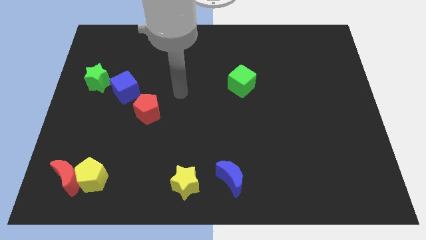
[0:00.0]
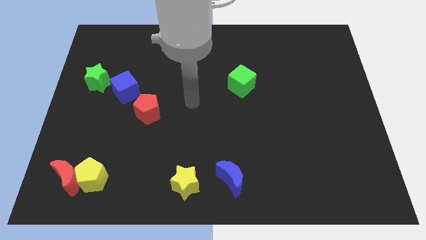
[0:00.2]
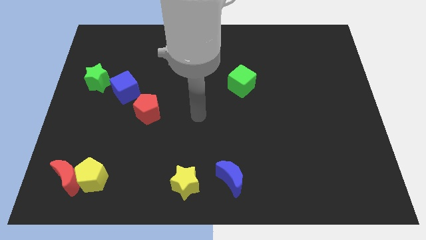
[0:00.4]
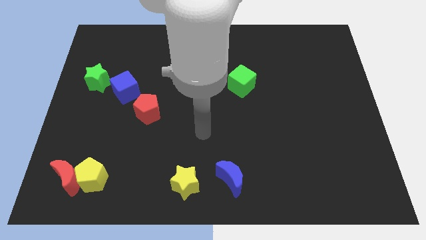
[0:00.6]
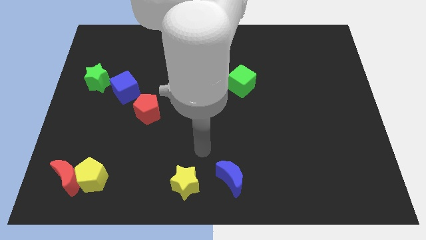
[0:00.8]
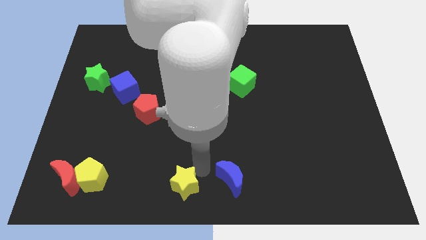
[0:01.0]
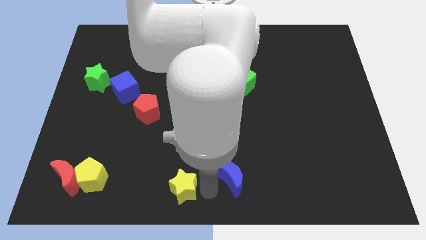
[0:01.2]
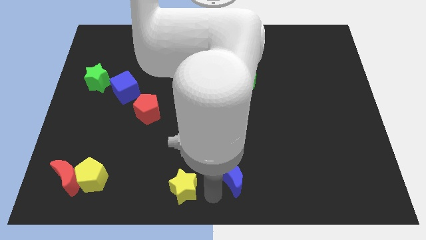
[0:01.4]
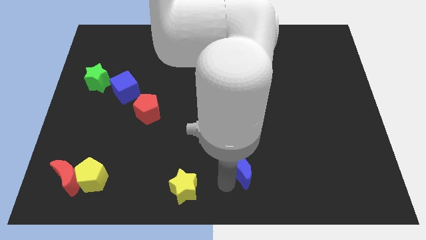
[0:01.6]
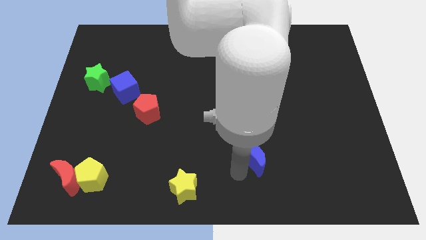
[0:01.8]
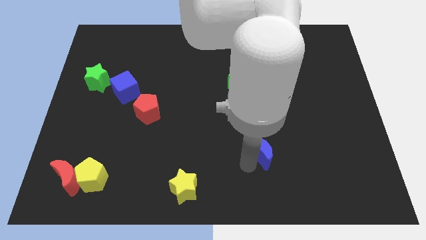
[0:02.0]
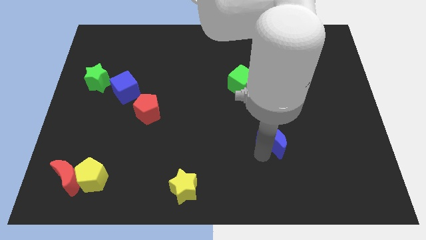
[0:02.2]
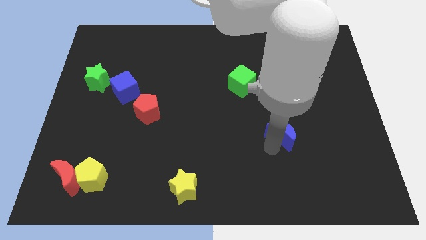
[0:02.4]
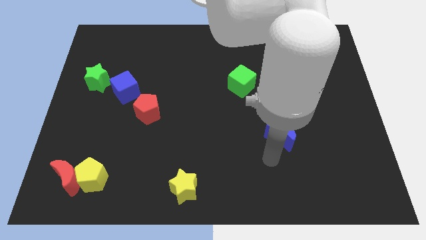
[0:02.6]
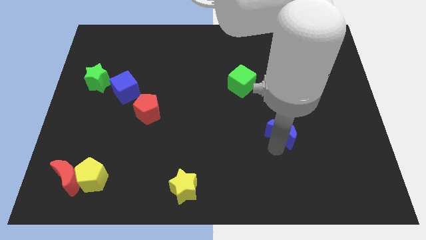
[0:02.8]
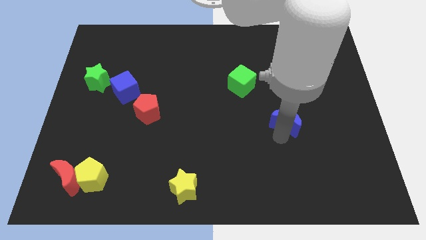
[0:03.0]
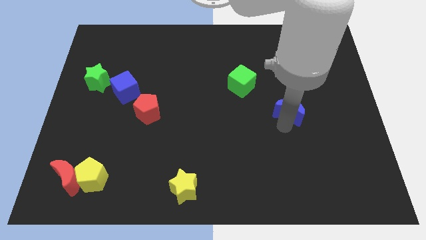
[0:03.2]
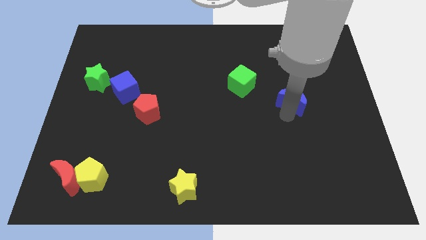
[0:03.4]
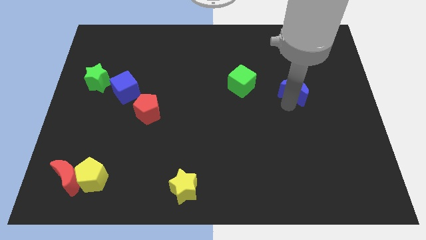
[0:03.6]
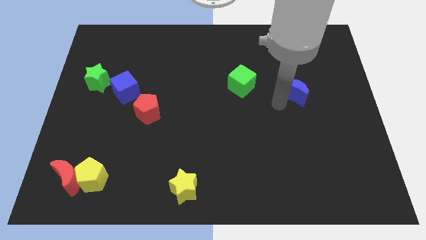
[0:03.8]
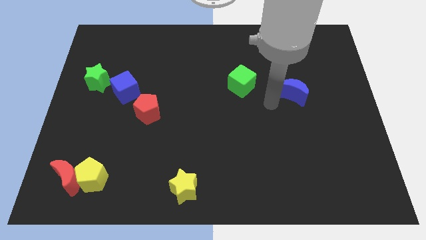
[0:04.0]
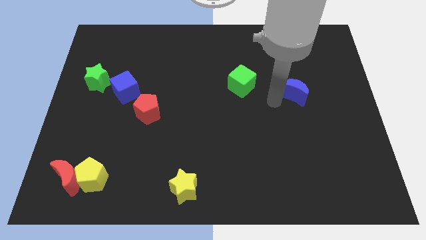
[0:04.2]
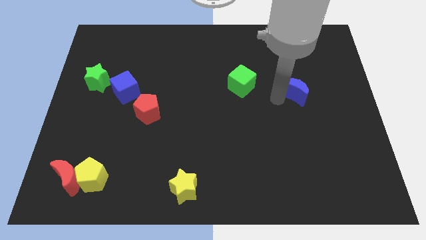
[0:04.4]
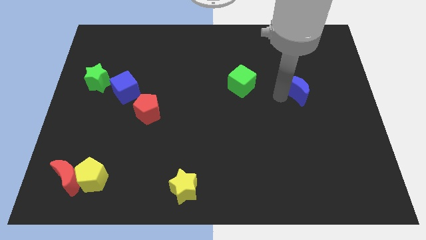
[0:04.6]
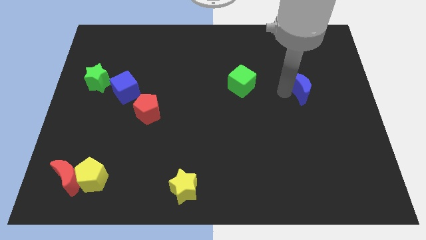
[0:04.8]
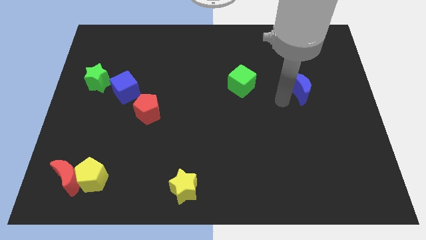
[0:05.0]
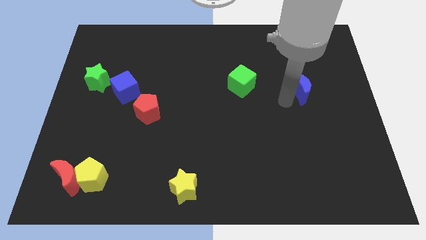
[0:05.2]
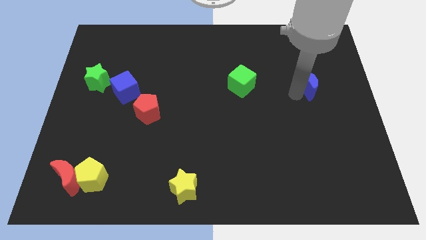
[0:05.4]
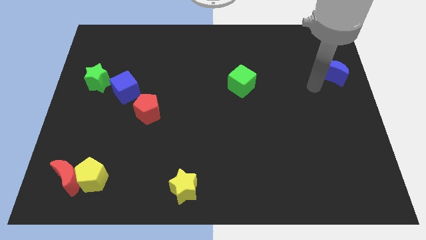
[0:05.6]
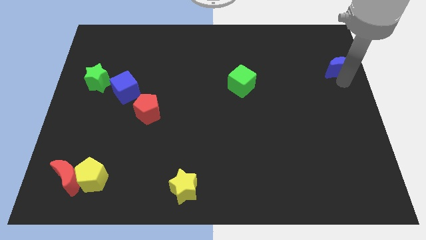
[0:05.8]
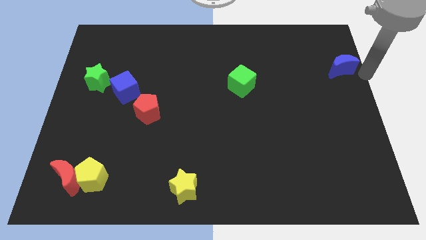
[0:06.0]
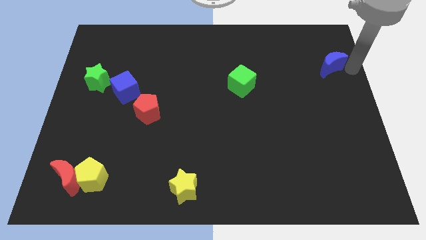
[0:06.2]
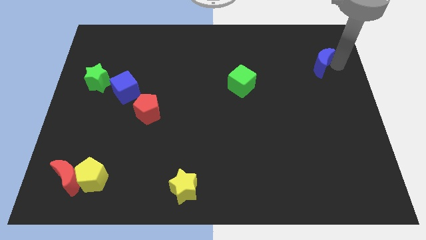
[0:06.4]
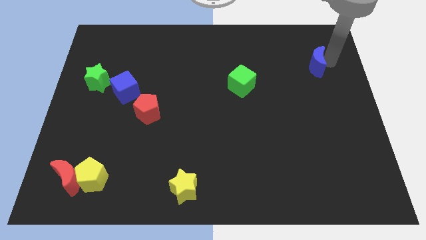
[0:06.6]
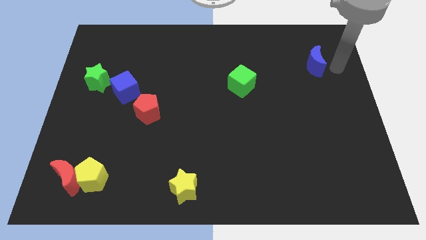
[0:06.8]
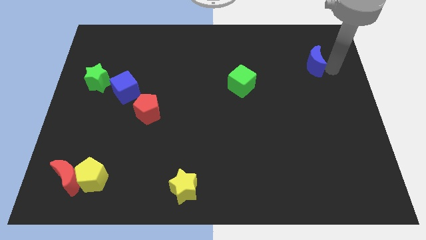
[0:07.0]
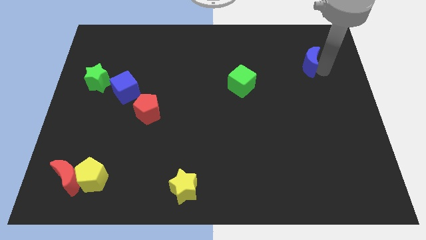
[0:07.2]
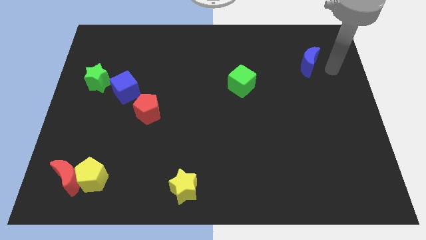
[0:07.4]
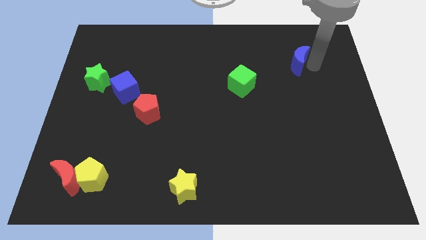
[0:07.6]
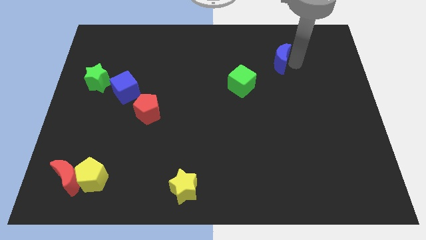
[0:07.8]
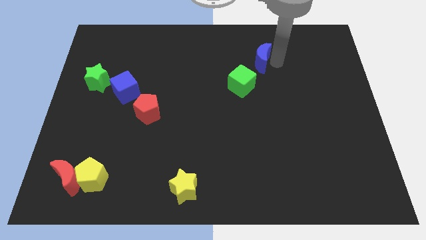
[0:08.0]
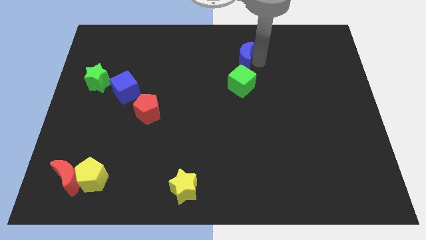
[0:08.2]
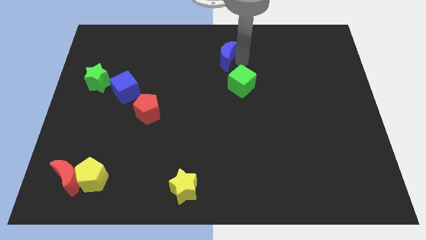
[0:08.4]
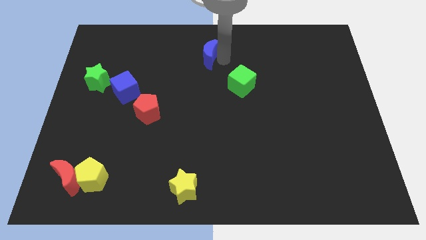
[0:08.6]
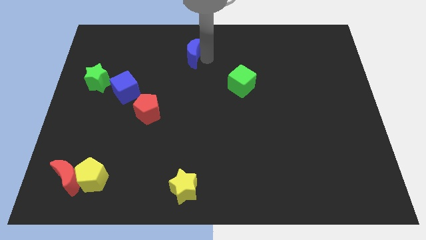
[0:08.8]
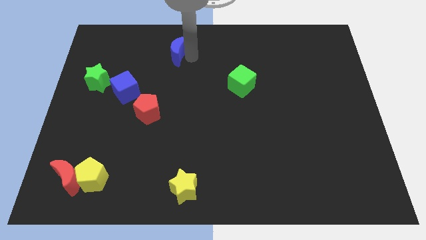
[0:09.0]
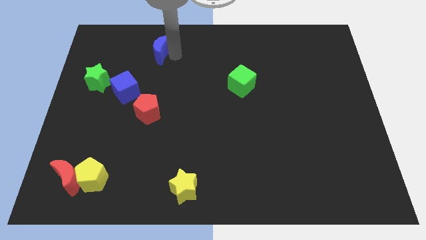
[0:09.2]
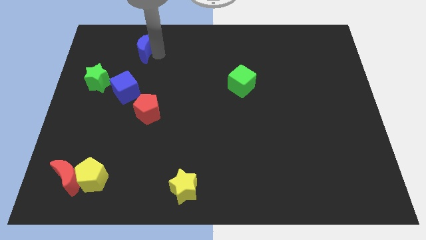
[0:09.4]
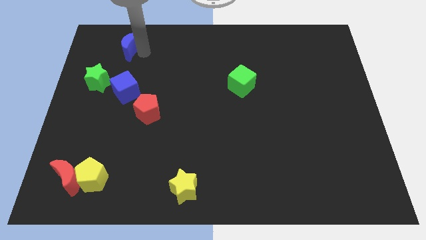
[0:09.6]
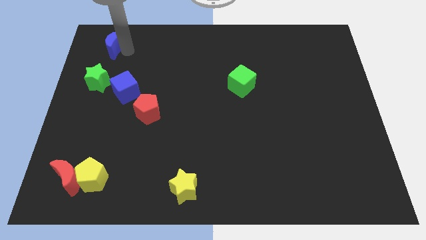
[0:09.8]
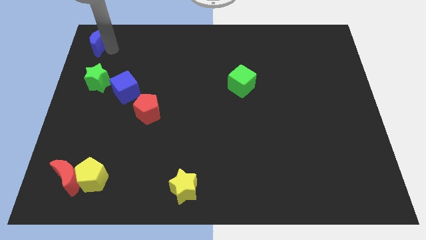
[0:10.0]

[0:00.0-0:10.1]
move the blue moon to the top left

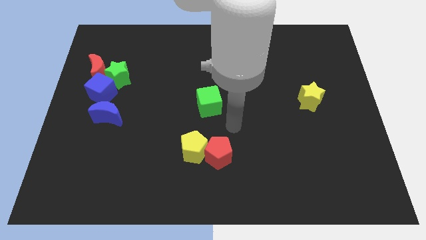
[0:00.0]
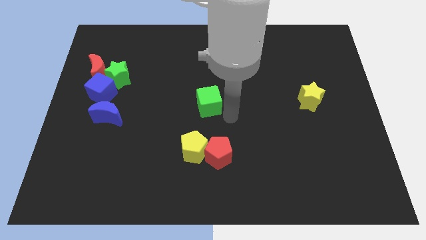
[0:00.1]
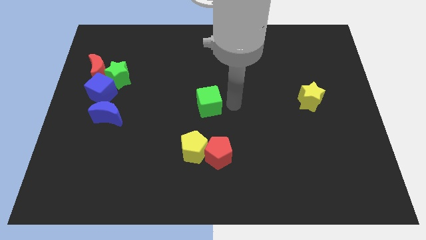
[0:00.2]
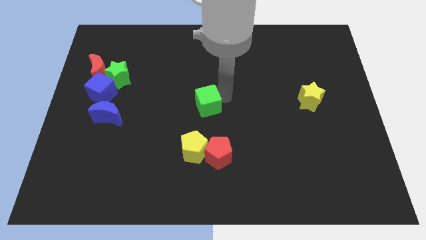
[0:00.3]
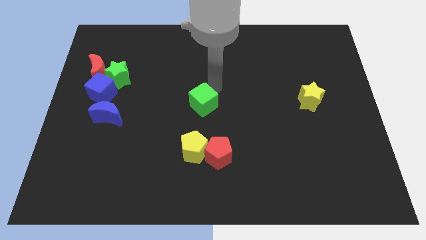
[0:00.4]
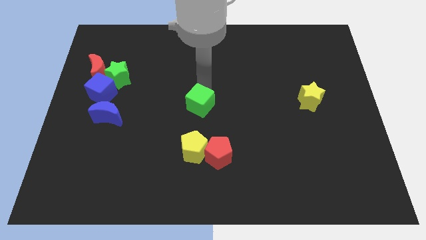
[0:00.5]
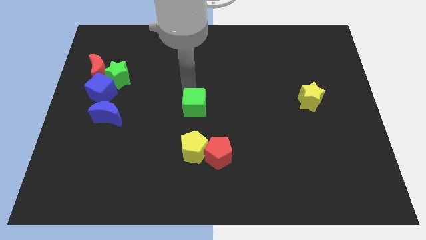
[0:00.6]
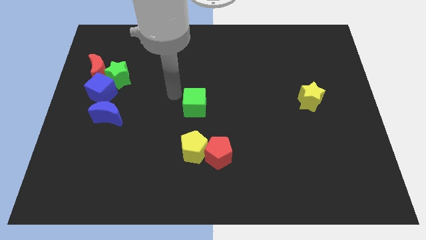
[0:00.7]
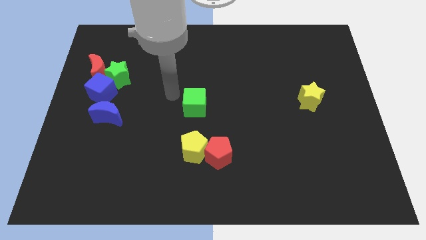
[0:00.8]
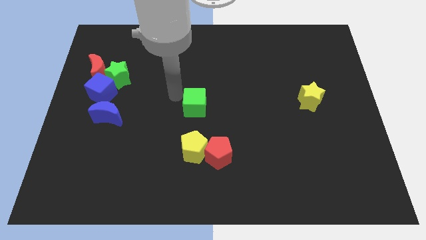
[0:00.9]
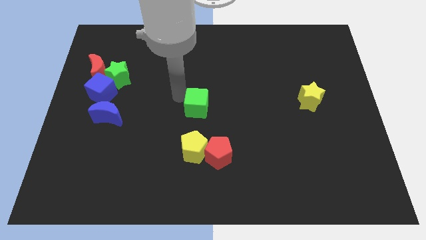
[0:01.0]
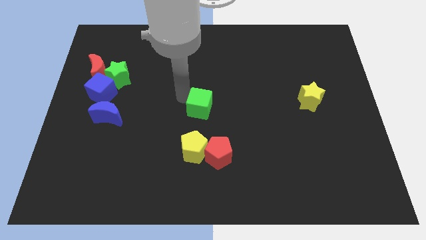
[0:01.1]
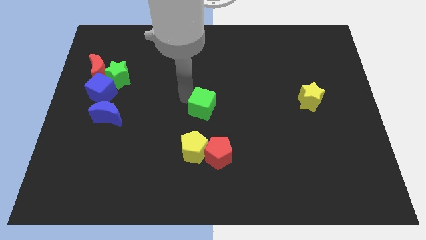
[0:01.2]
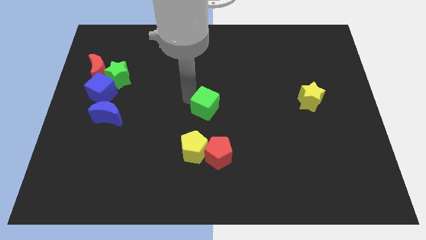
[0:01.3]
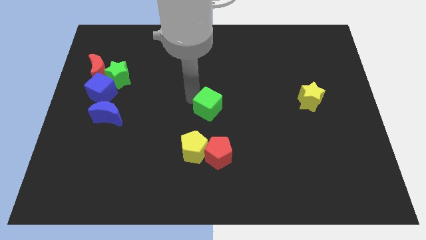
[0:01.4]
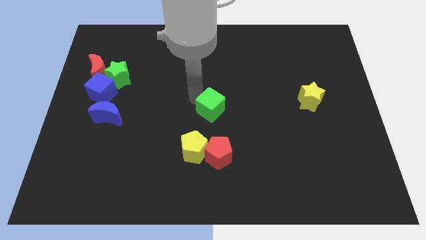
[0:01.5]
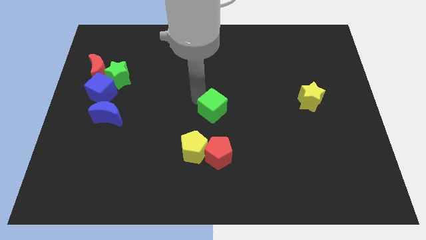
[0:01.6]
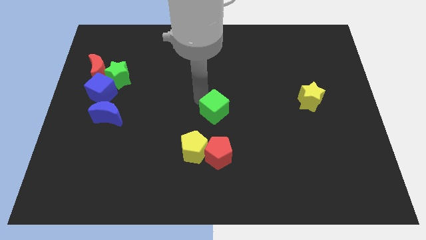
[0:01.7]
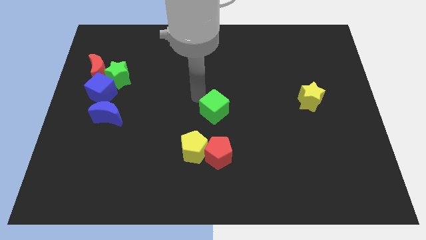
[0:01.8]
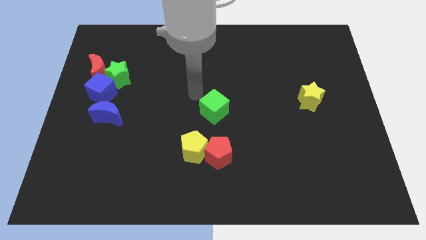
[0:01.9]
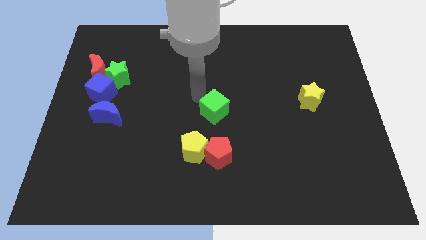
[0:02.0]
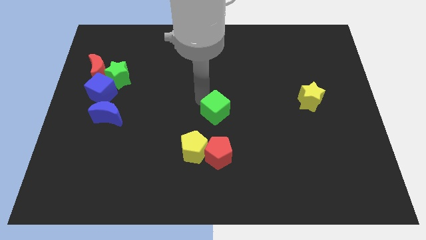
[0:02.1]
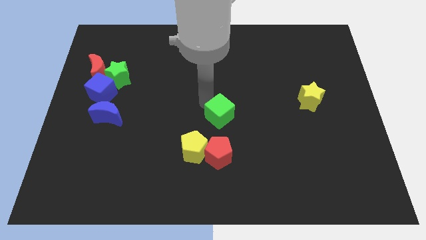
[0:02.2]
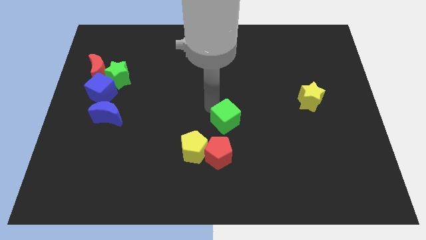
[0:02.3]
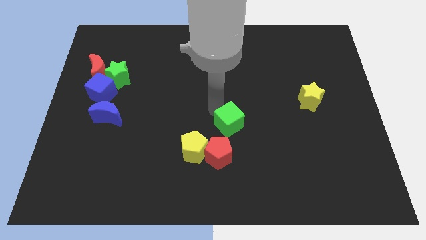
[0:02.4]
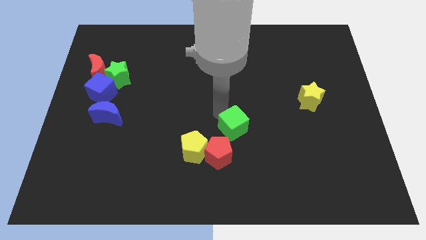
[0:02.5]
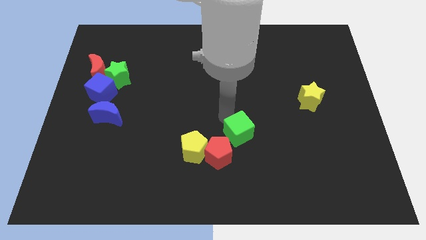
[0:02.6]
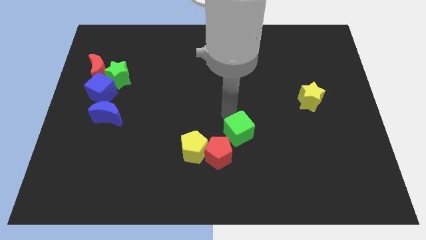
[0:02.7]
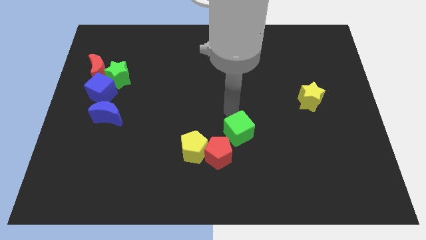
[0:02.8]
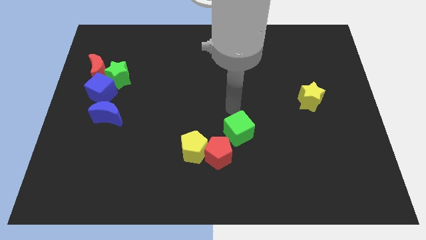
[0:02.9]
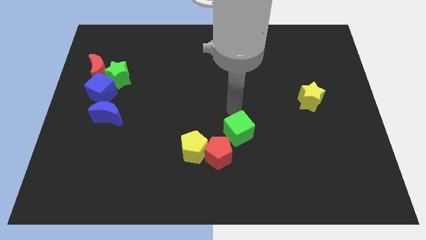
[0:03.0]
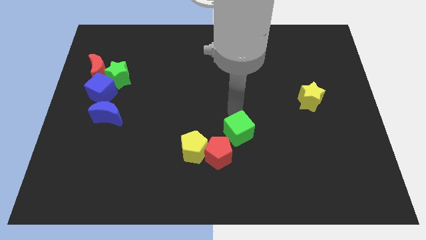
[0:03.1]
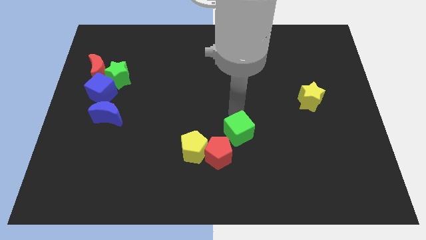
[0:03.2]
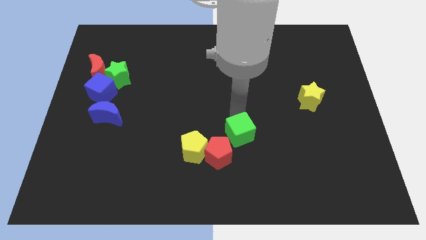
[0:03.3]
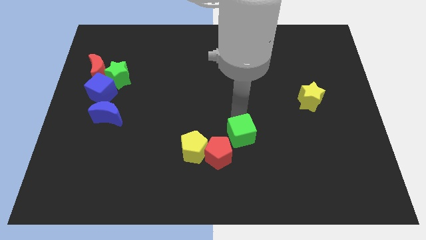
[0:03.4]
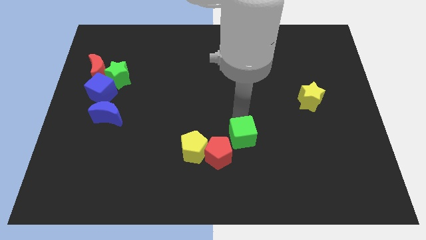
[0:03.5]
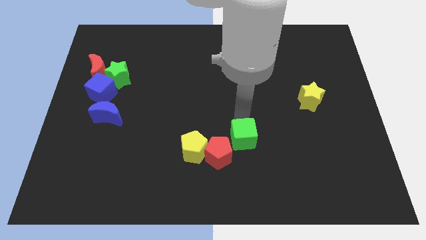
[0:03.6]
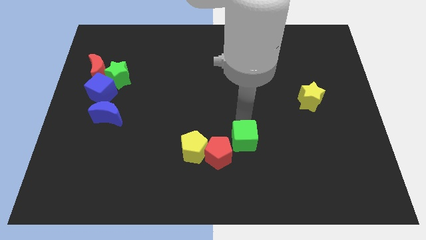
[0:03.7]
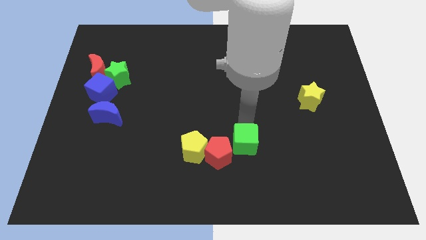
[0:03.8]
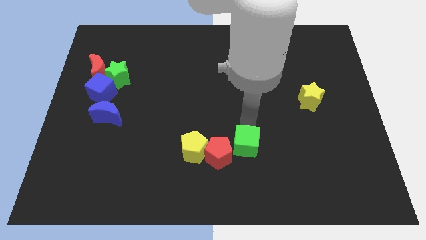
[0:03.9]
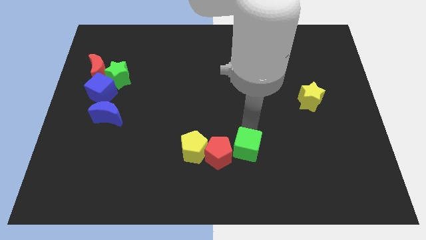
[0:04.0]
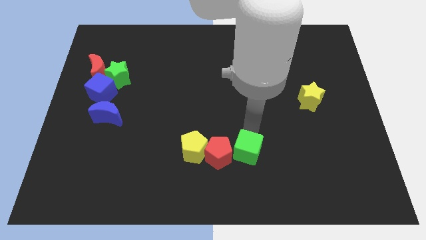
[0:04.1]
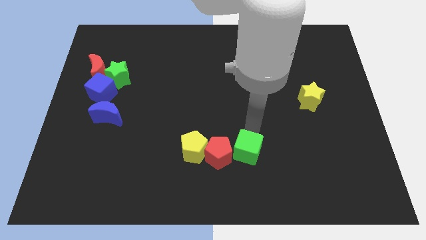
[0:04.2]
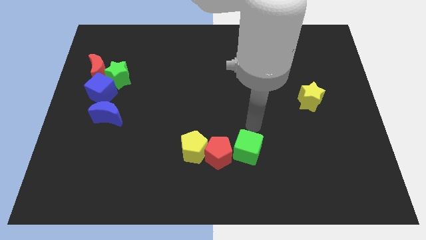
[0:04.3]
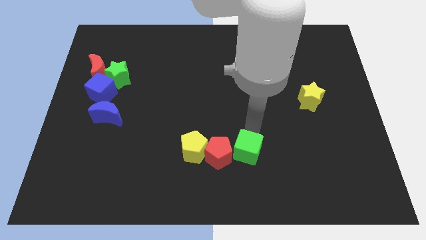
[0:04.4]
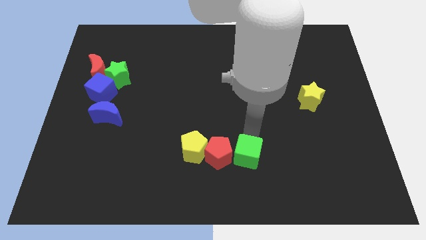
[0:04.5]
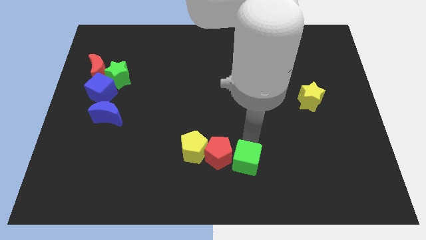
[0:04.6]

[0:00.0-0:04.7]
slide the green cube to the bottom
